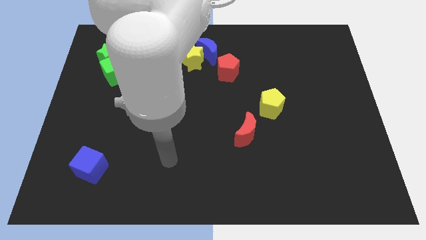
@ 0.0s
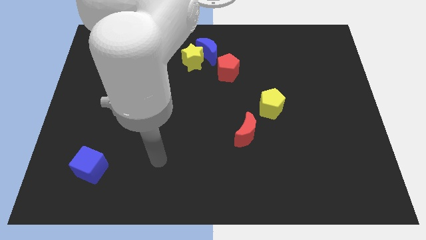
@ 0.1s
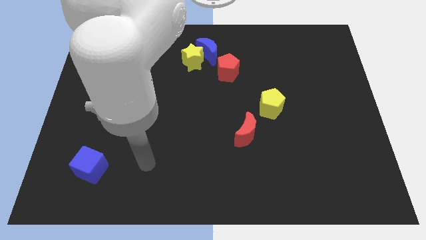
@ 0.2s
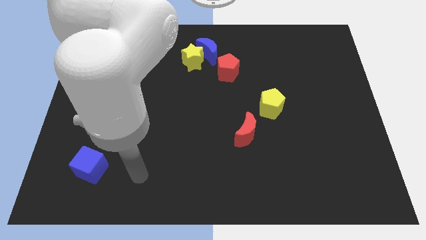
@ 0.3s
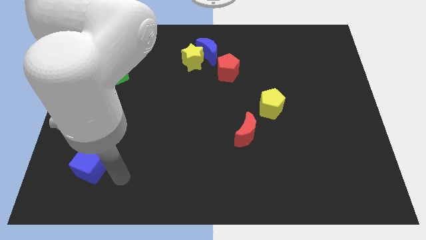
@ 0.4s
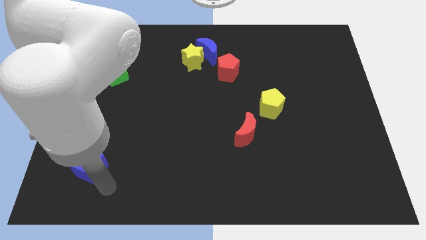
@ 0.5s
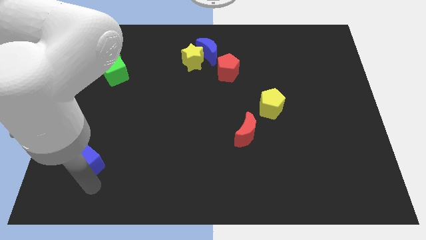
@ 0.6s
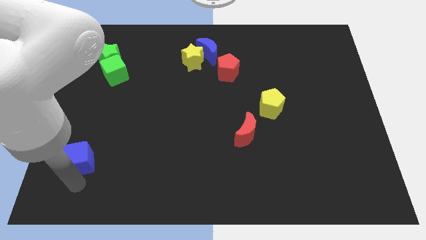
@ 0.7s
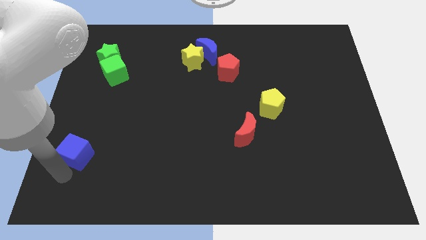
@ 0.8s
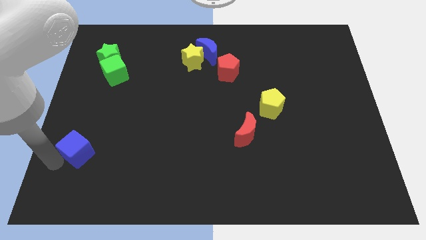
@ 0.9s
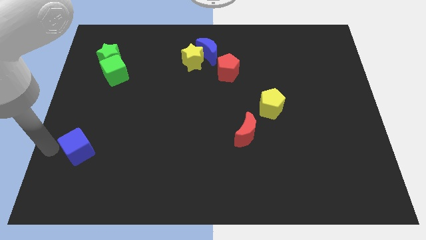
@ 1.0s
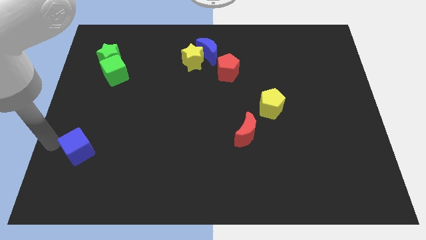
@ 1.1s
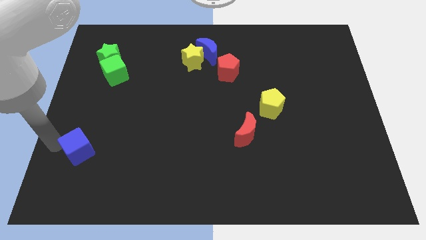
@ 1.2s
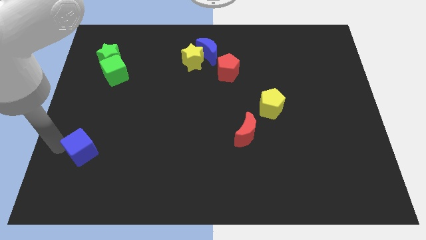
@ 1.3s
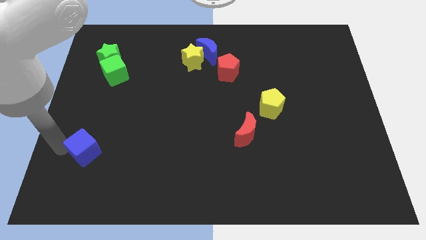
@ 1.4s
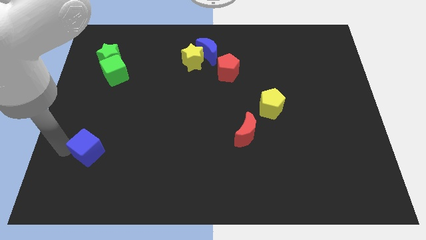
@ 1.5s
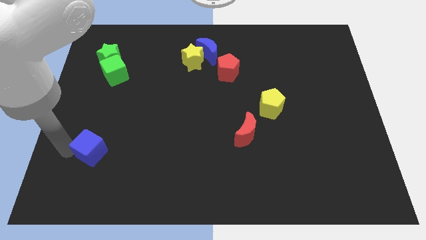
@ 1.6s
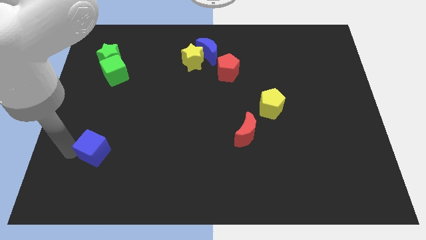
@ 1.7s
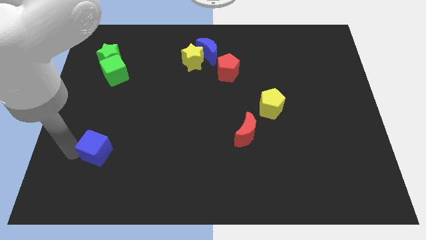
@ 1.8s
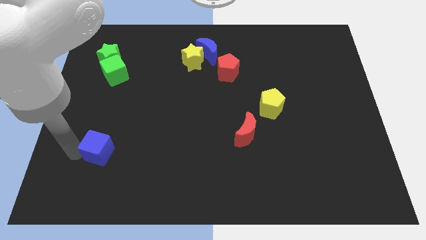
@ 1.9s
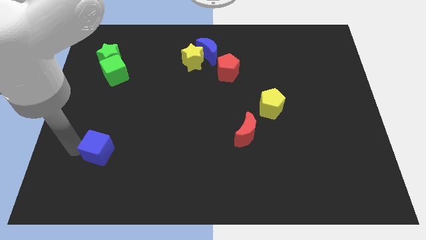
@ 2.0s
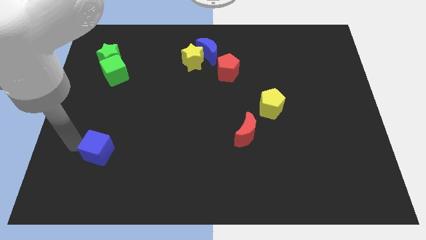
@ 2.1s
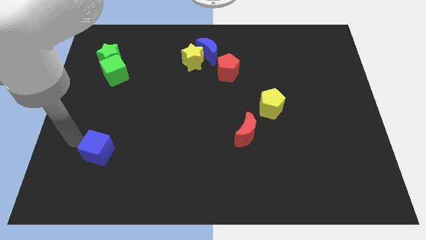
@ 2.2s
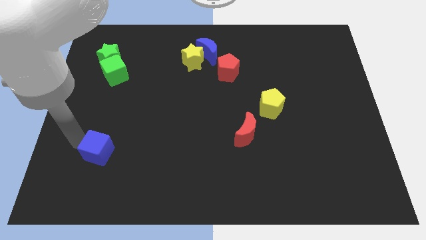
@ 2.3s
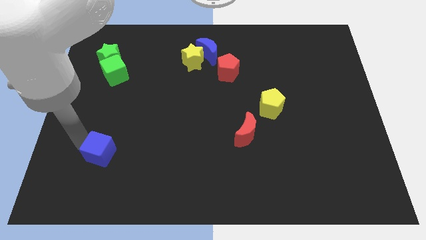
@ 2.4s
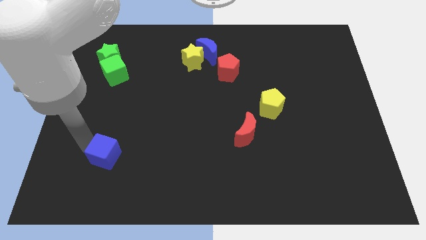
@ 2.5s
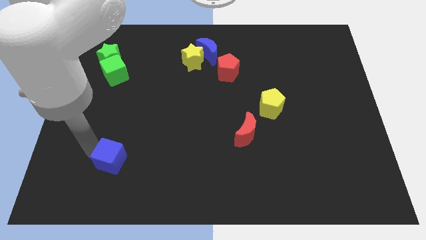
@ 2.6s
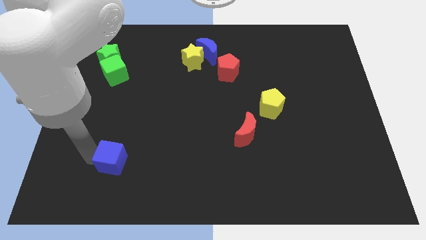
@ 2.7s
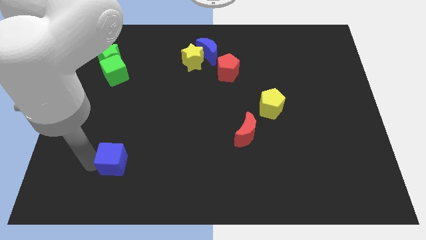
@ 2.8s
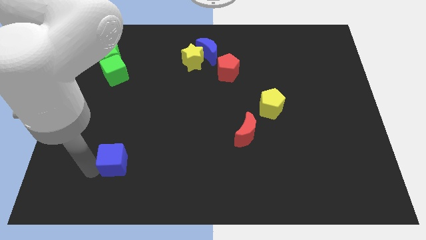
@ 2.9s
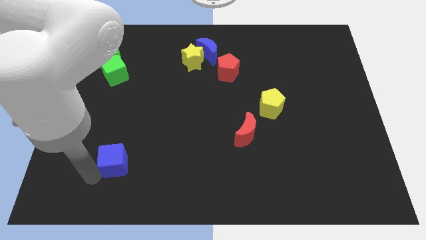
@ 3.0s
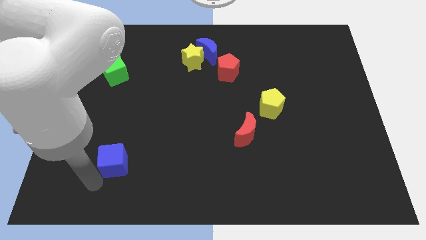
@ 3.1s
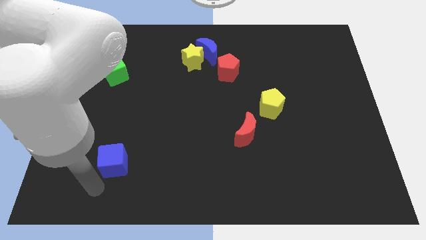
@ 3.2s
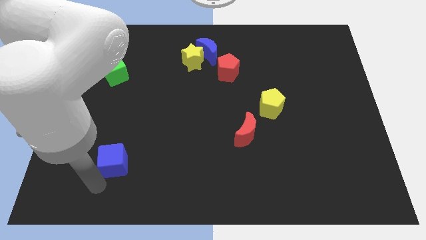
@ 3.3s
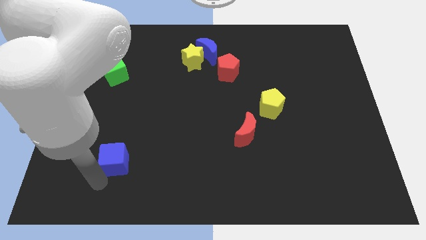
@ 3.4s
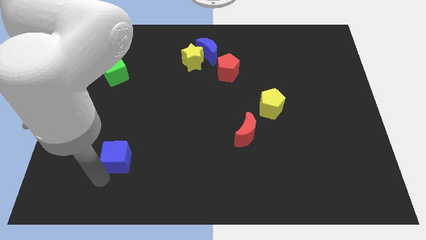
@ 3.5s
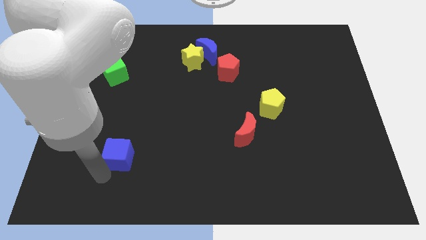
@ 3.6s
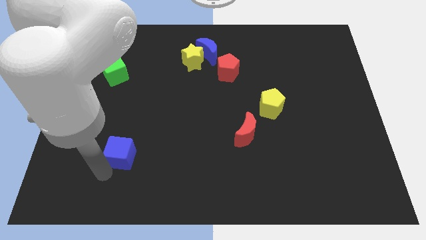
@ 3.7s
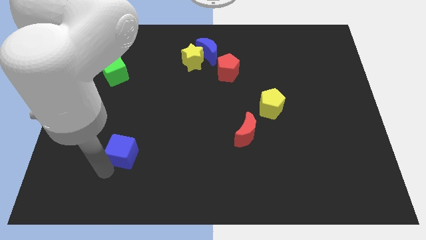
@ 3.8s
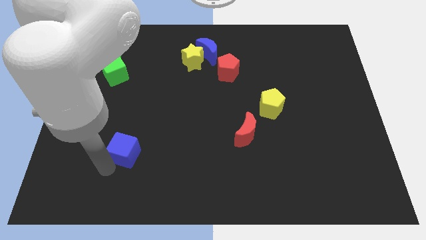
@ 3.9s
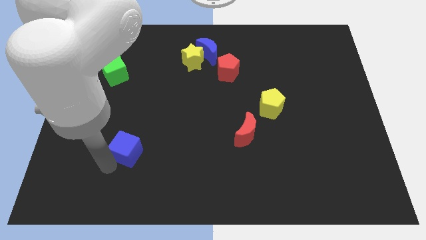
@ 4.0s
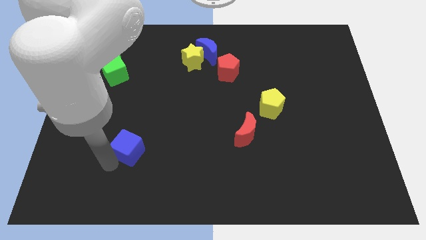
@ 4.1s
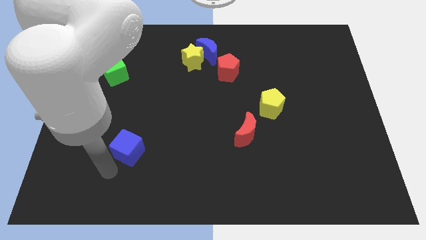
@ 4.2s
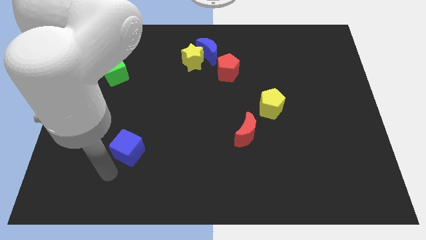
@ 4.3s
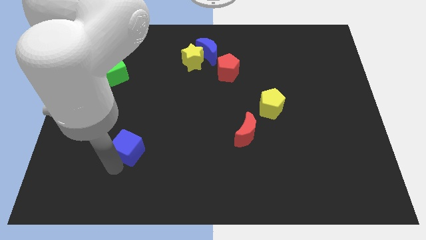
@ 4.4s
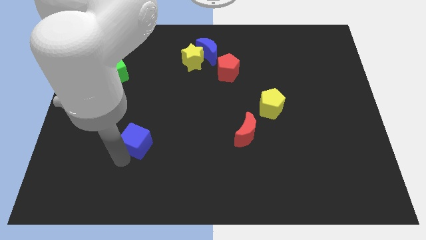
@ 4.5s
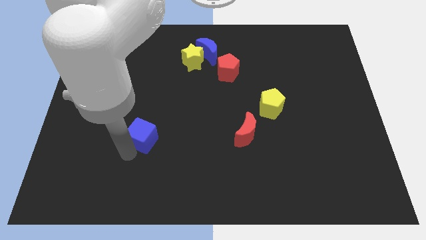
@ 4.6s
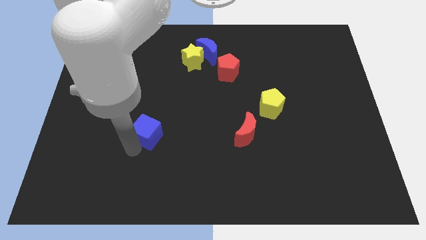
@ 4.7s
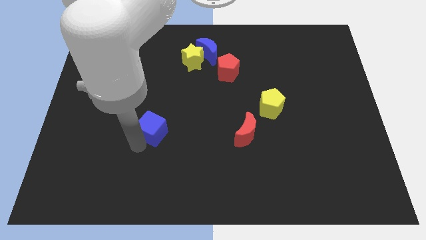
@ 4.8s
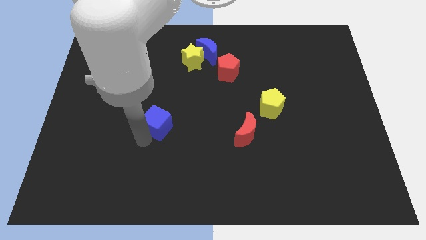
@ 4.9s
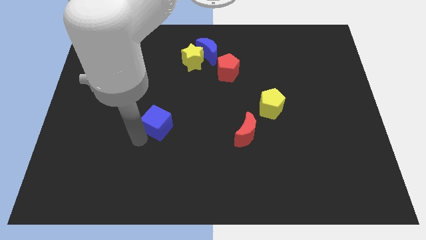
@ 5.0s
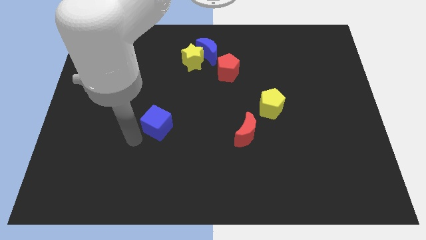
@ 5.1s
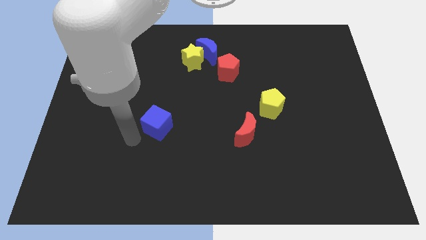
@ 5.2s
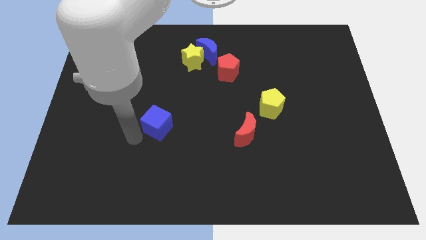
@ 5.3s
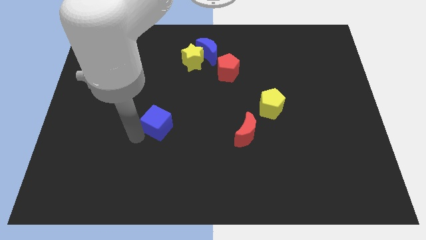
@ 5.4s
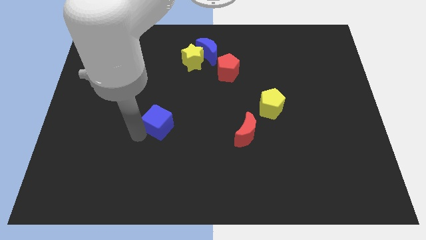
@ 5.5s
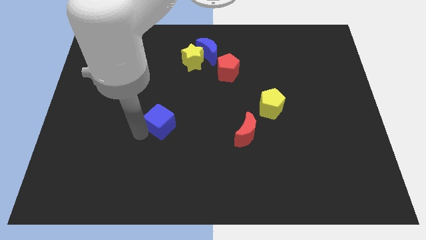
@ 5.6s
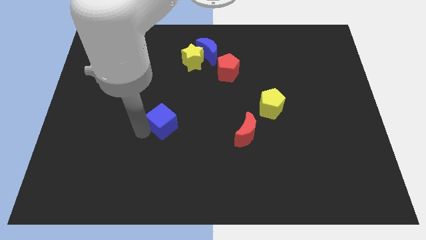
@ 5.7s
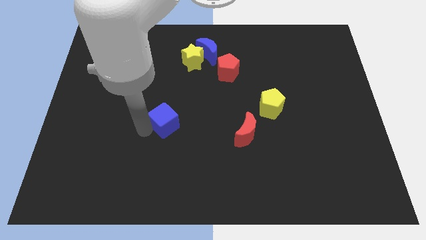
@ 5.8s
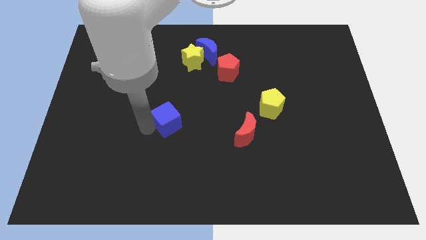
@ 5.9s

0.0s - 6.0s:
push the blue cube to the center
